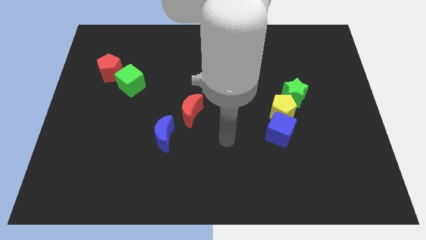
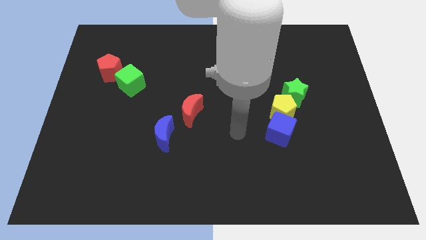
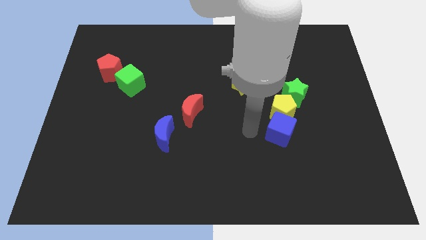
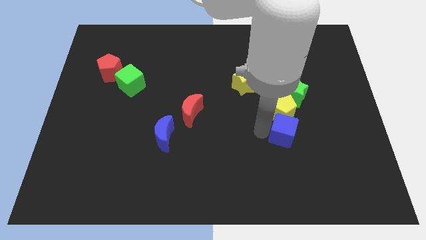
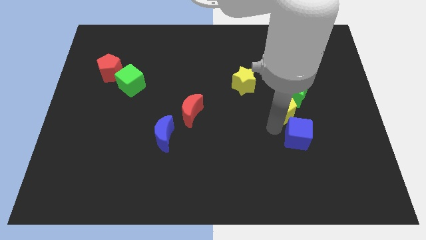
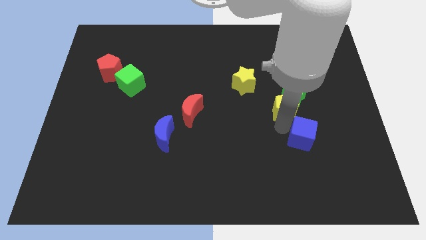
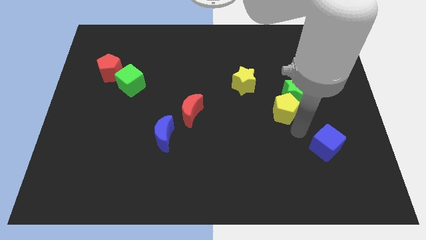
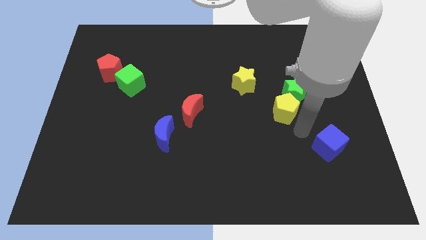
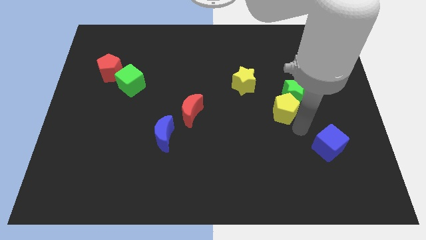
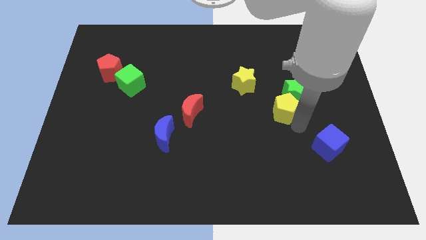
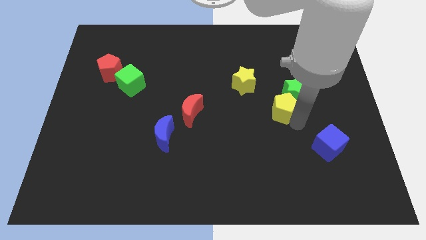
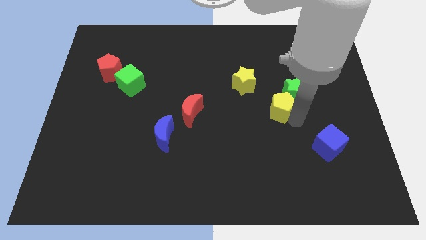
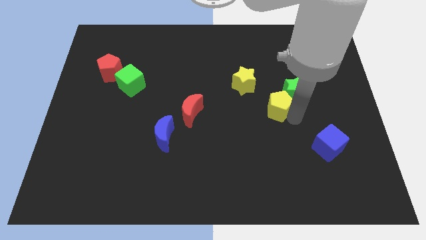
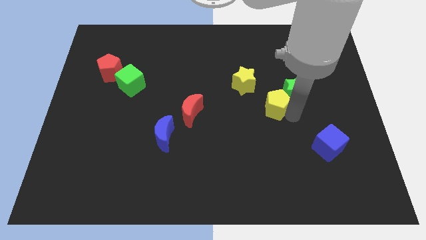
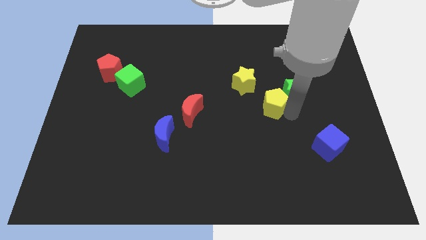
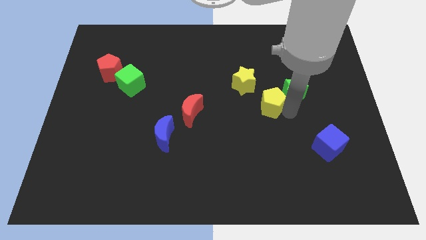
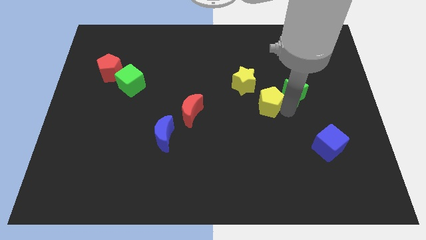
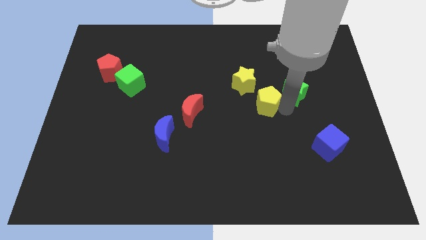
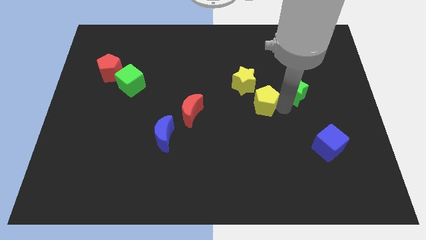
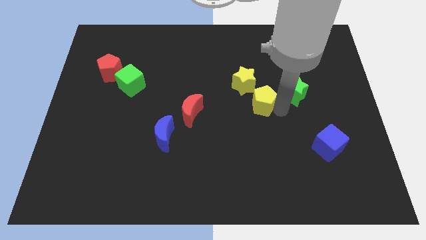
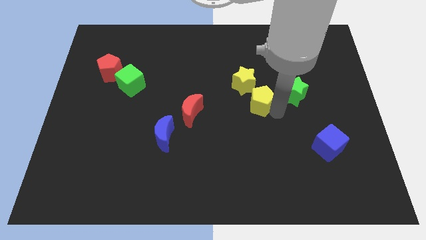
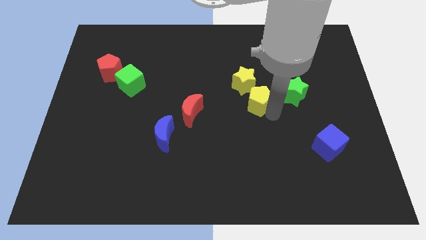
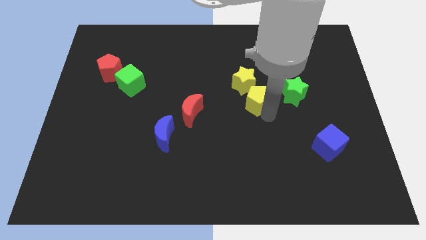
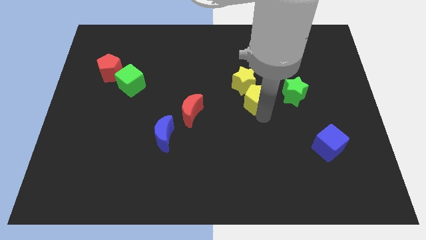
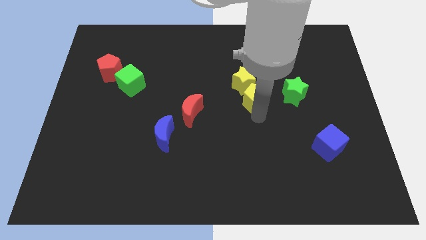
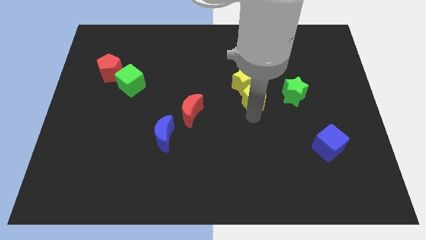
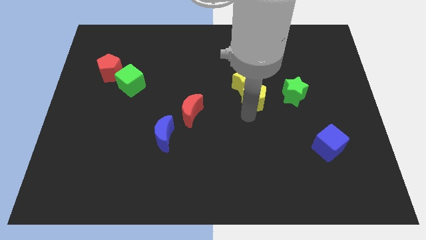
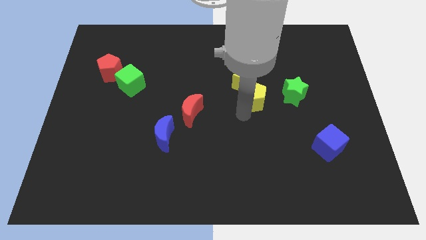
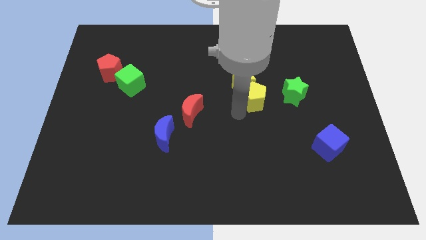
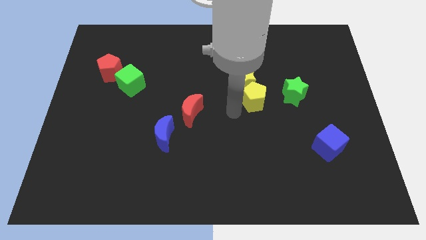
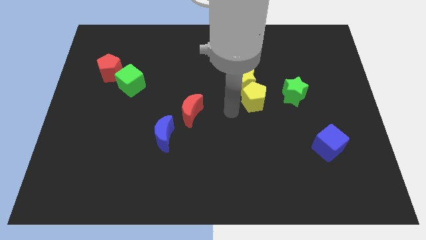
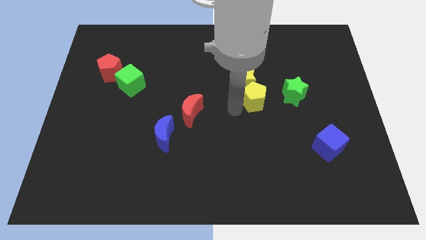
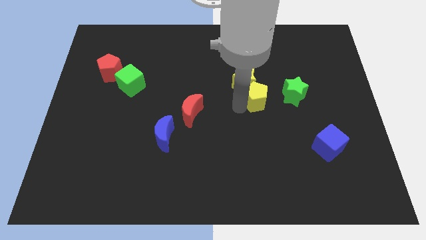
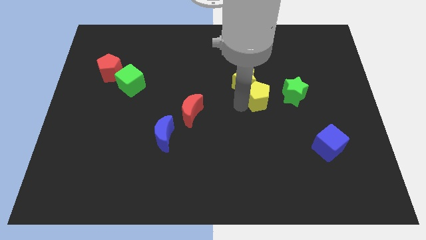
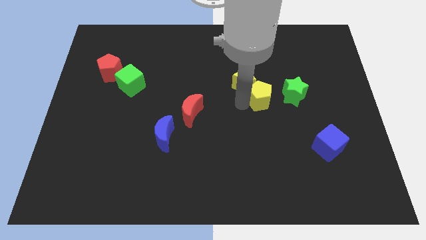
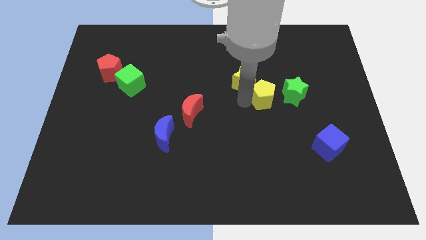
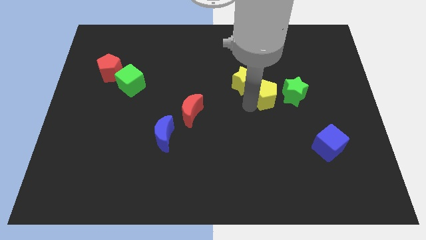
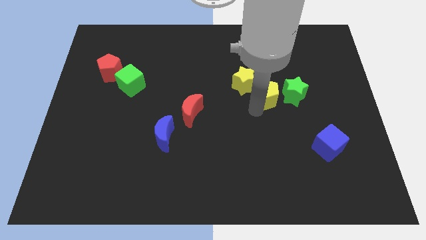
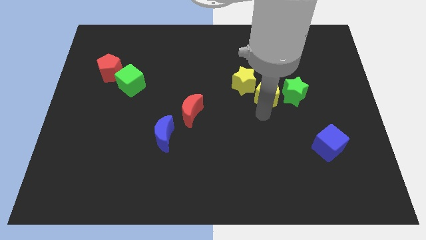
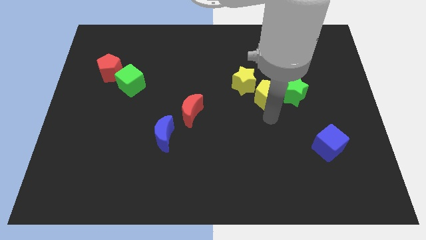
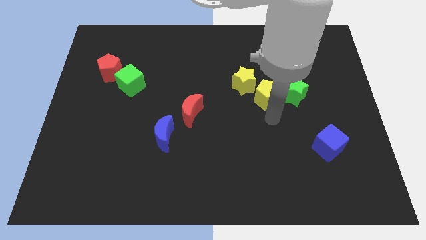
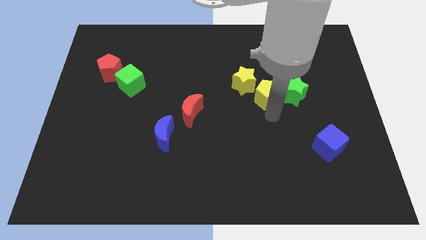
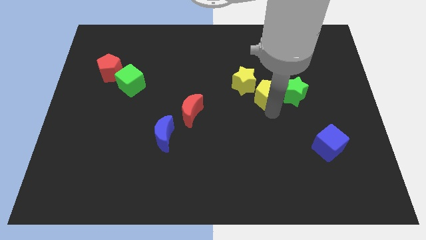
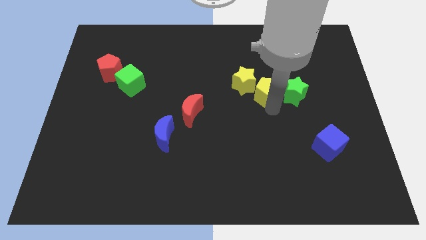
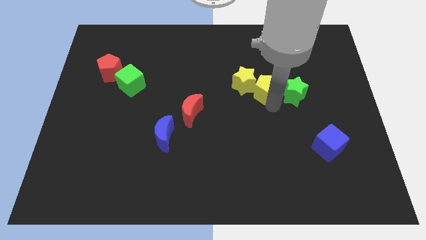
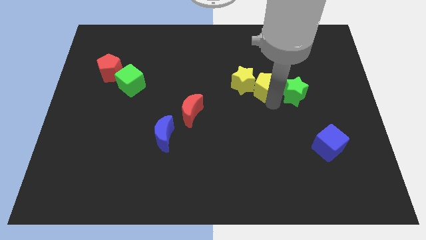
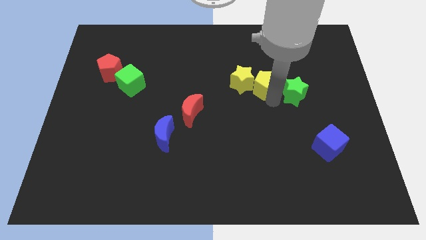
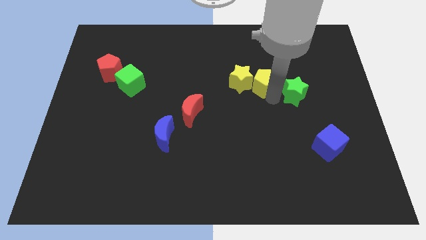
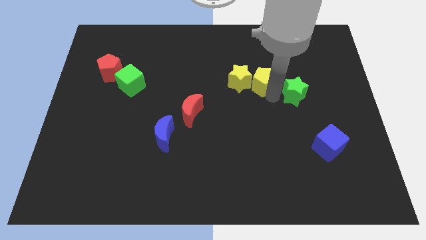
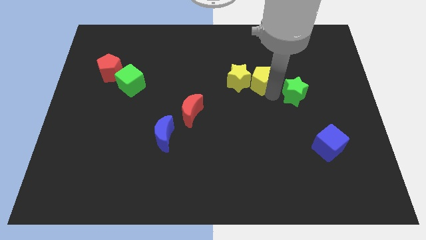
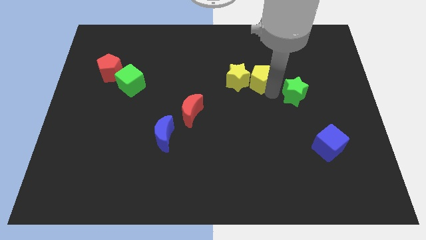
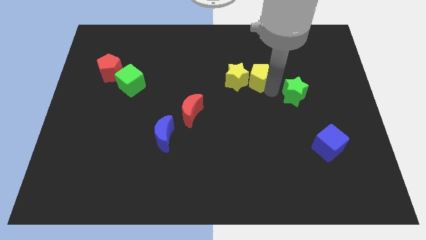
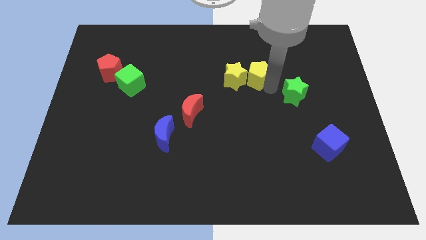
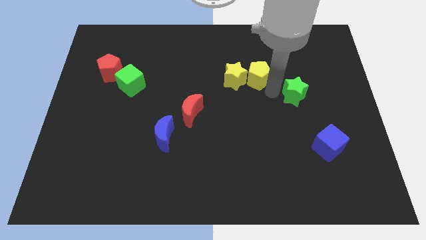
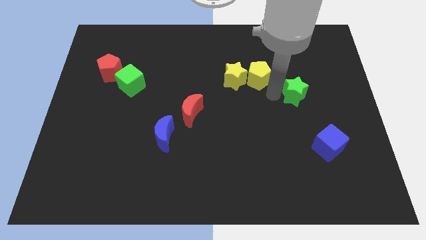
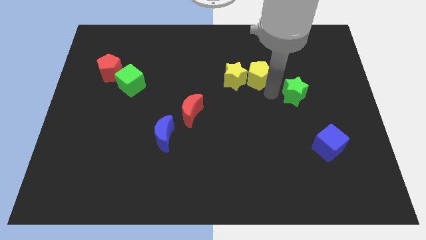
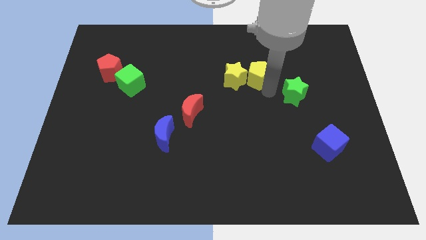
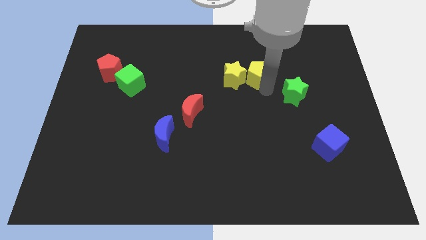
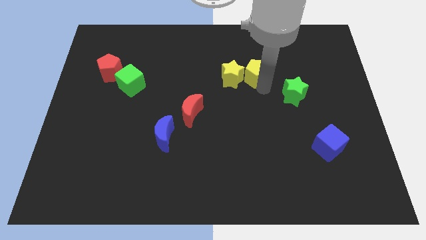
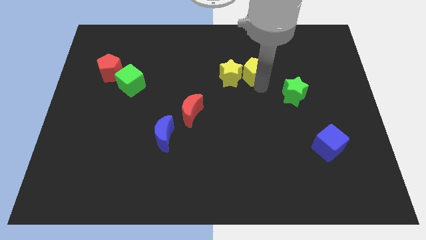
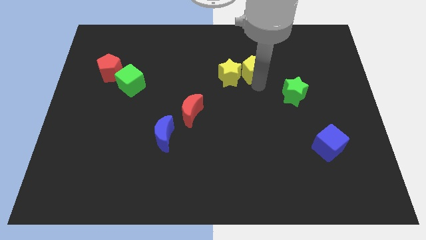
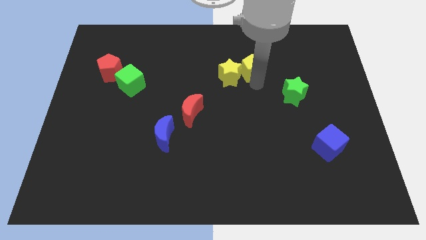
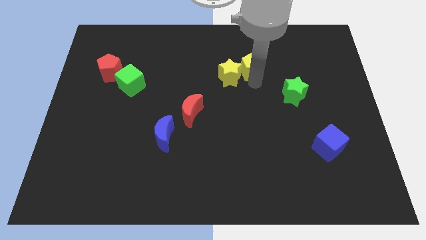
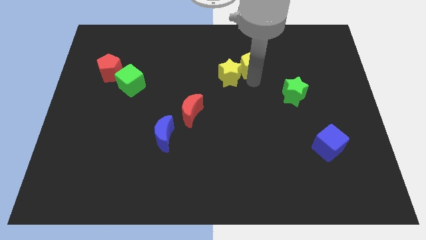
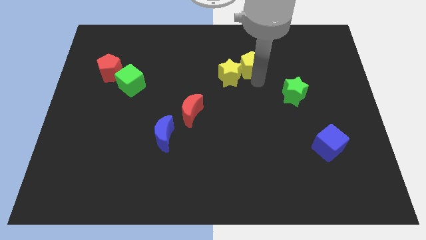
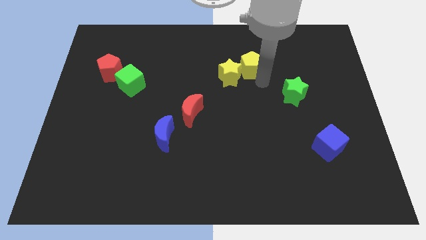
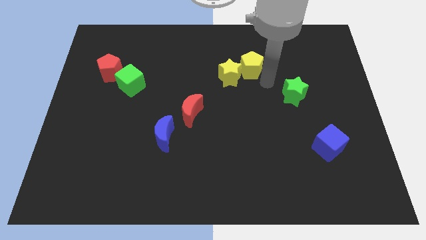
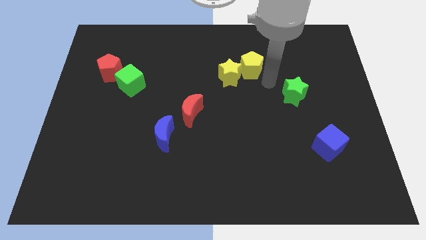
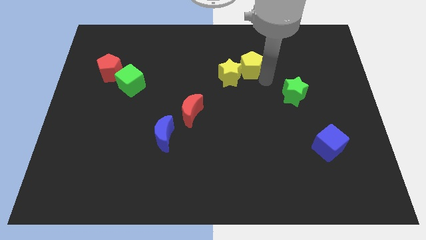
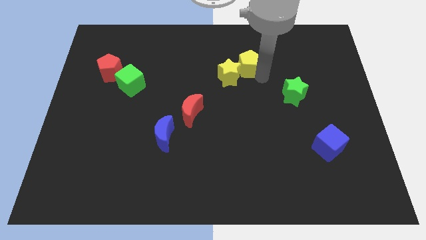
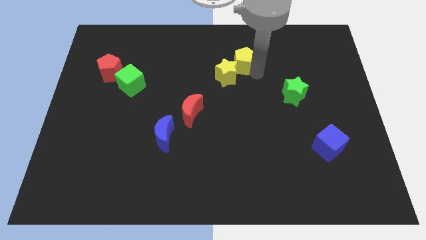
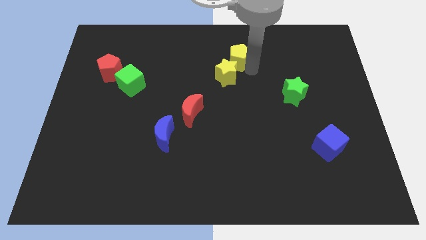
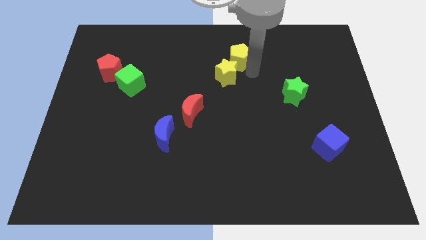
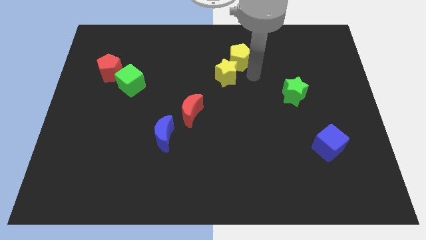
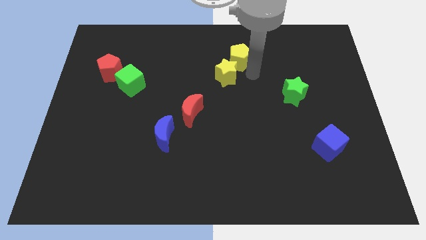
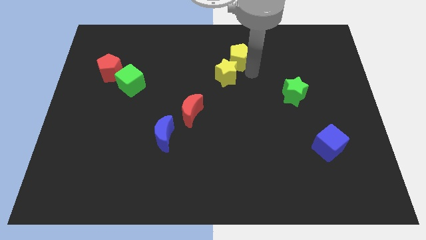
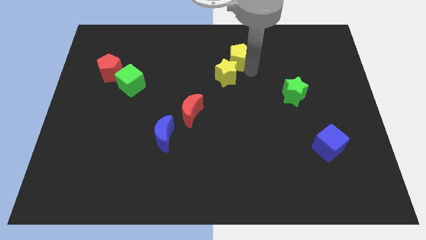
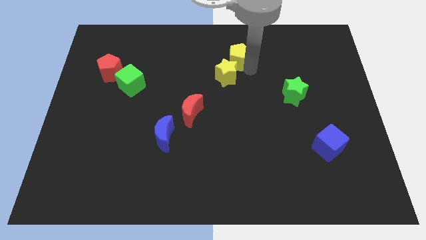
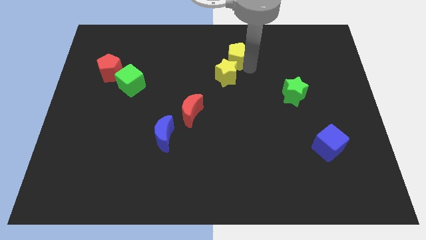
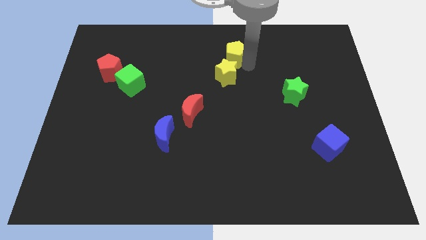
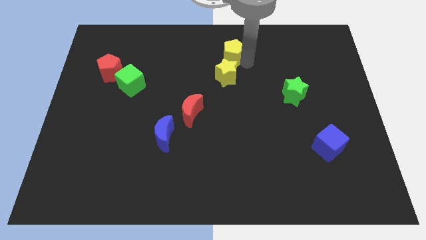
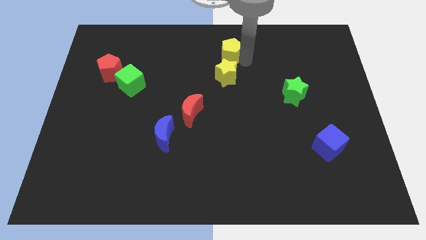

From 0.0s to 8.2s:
push the yellow pentagon to the top side
